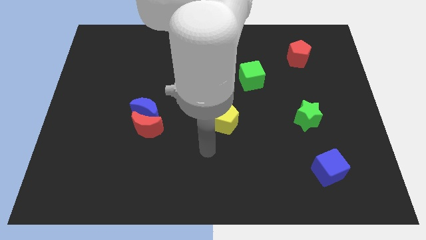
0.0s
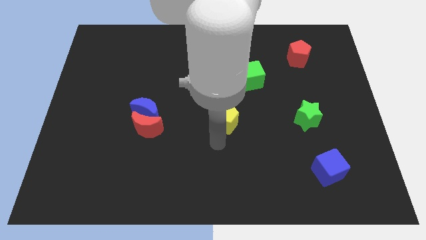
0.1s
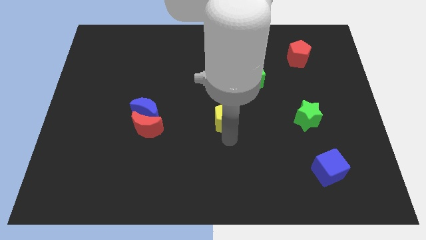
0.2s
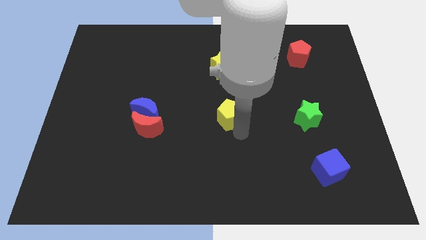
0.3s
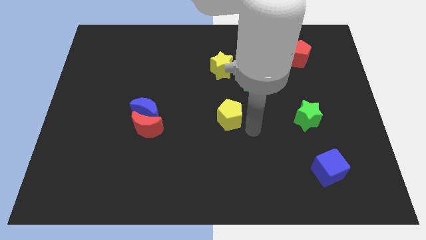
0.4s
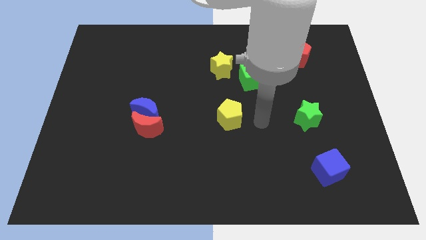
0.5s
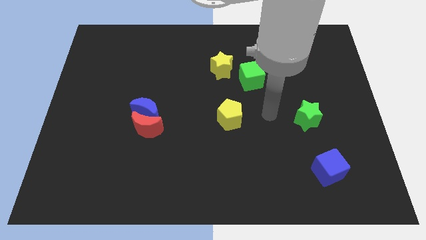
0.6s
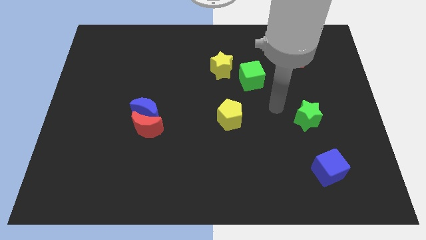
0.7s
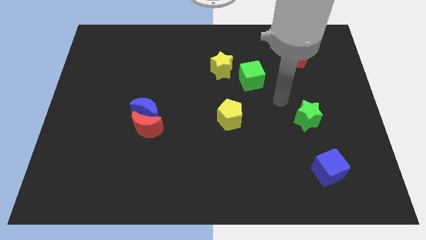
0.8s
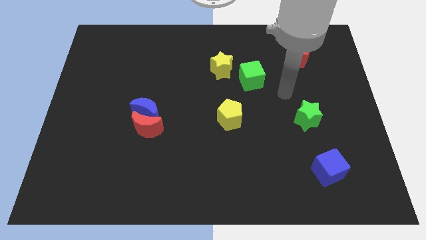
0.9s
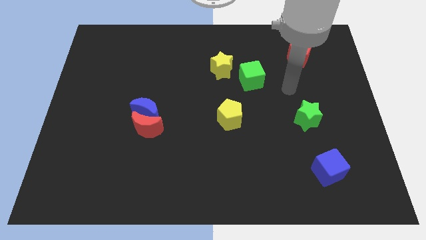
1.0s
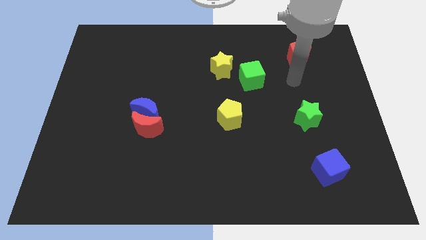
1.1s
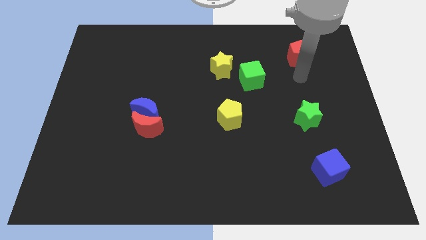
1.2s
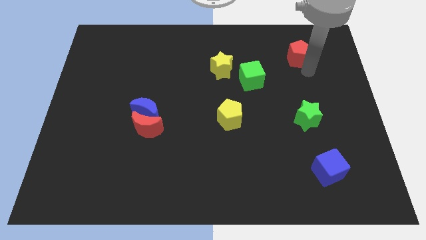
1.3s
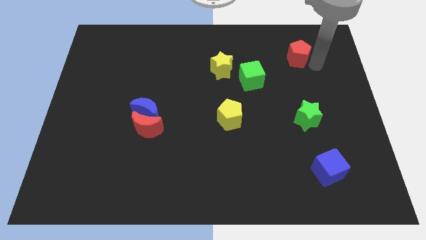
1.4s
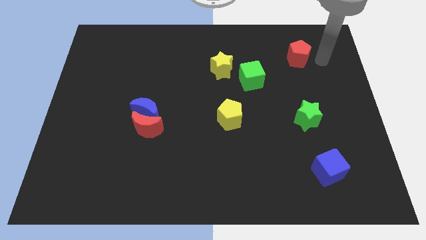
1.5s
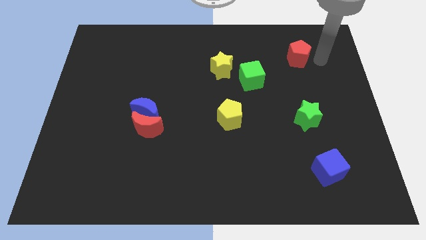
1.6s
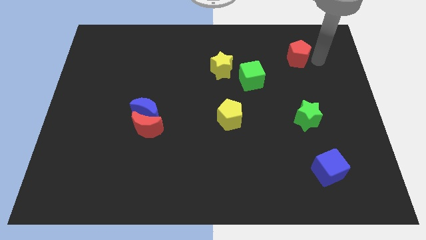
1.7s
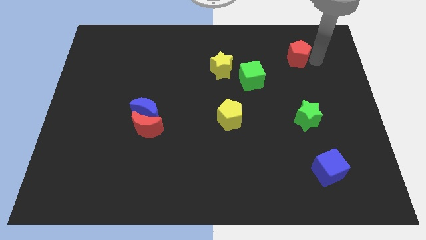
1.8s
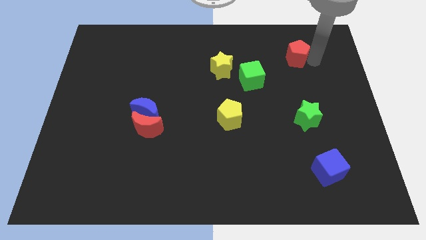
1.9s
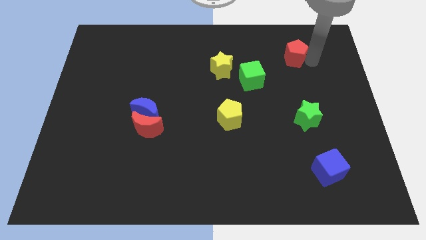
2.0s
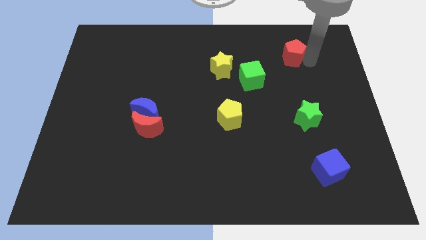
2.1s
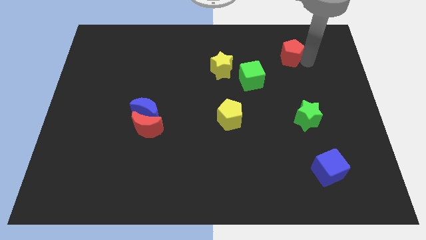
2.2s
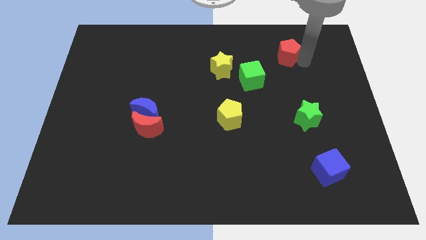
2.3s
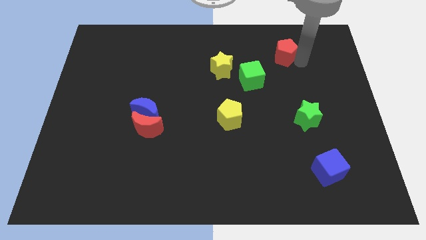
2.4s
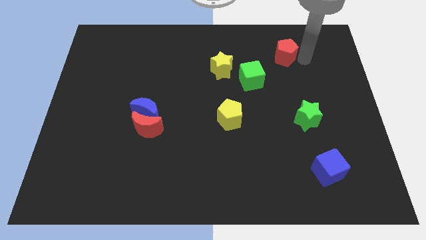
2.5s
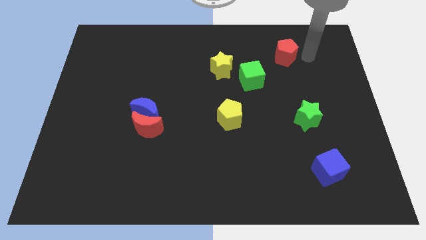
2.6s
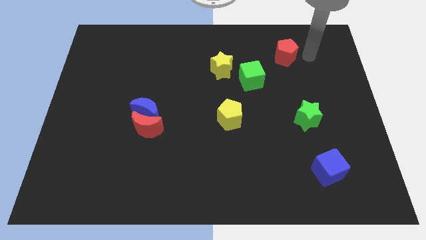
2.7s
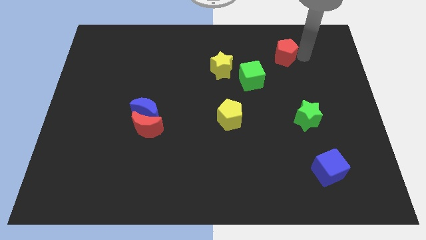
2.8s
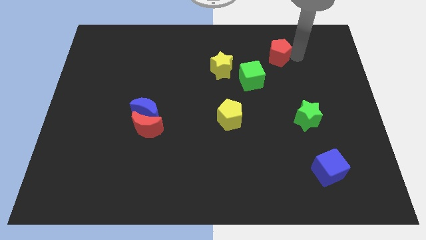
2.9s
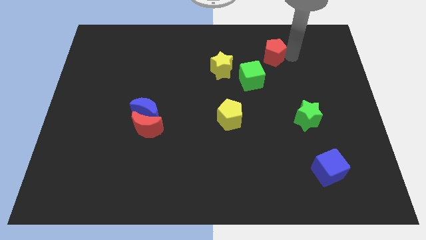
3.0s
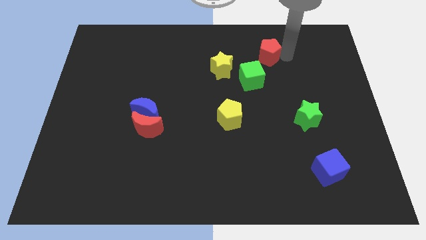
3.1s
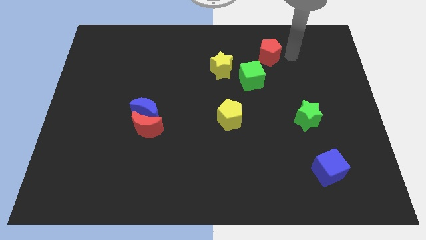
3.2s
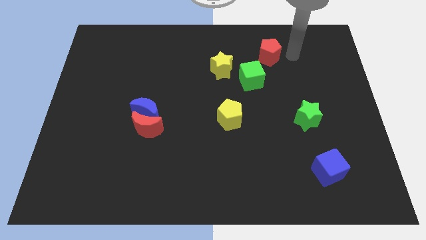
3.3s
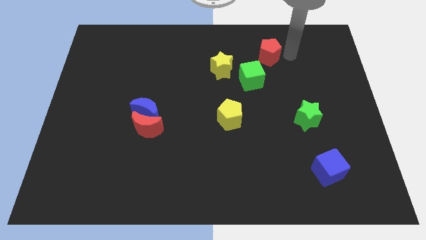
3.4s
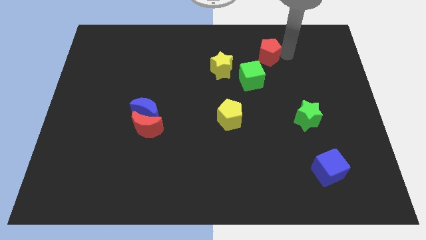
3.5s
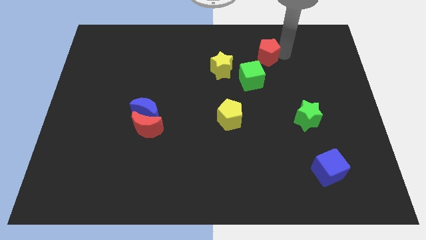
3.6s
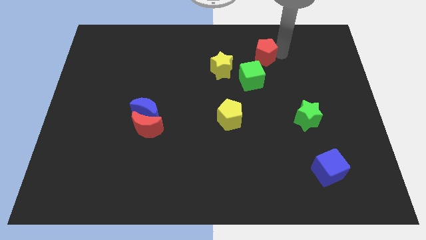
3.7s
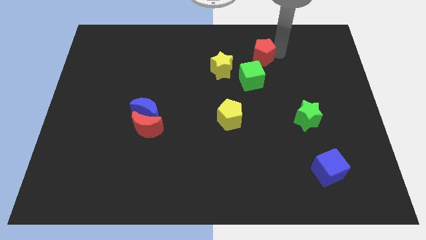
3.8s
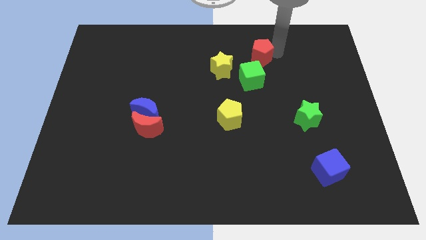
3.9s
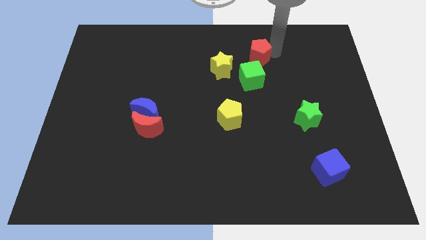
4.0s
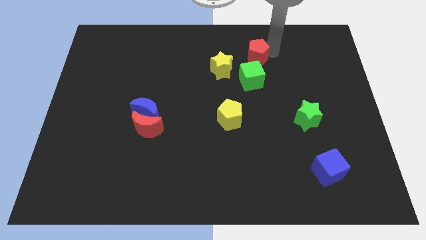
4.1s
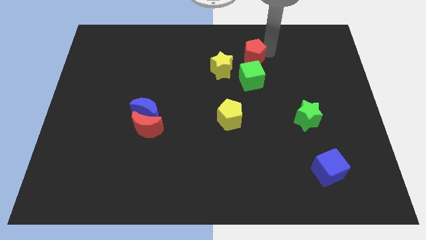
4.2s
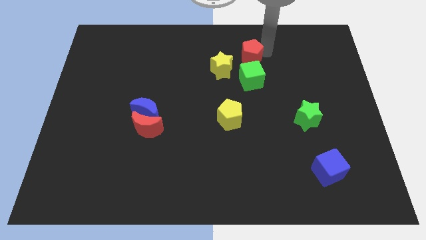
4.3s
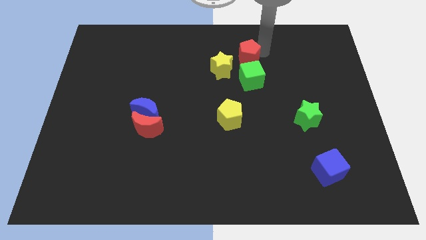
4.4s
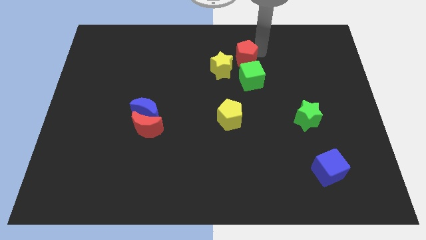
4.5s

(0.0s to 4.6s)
move the red pentagon diagonally up and to the left of the green cube

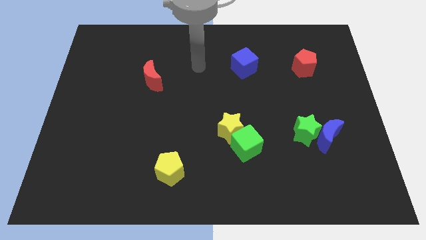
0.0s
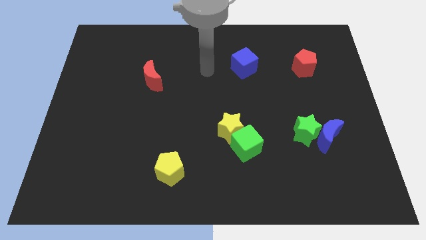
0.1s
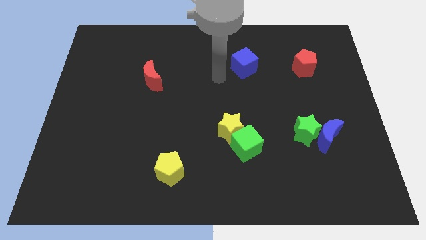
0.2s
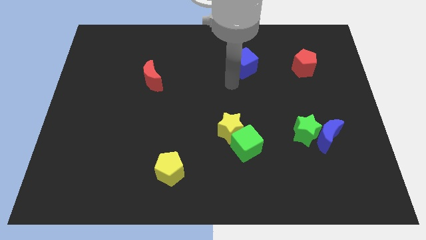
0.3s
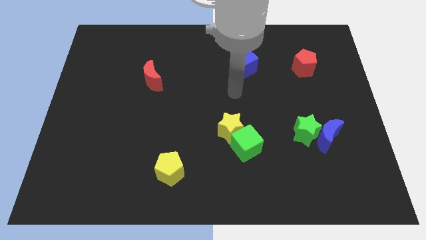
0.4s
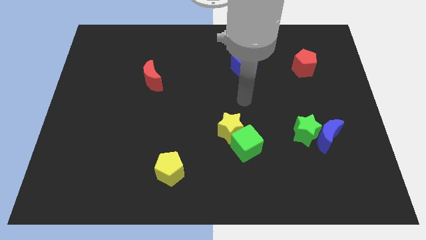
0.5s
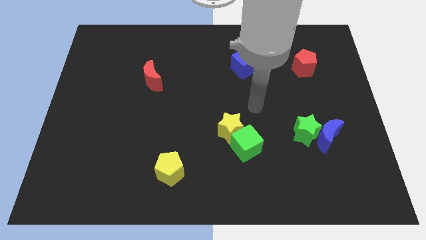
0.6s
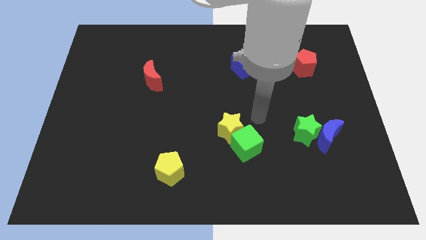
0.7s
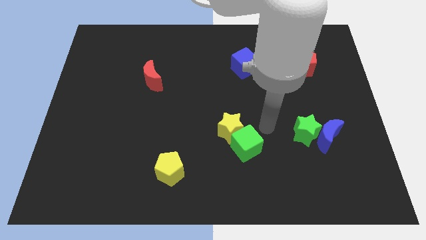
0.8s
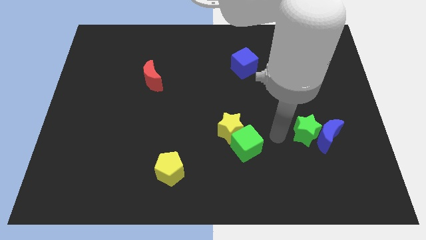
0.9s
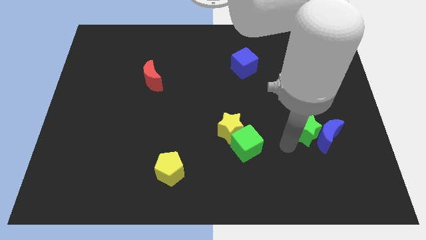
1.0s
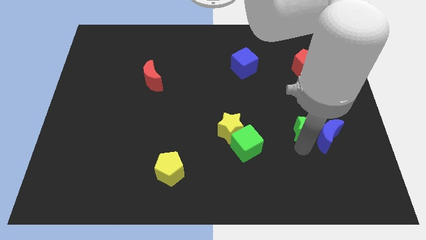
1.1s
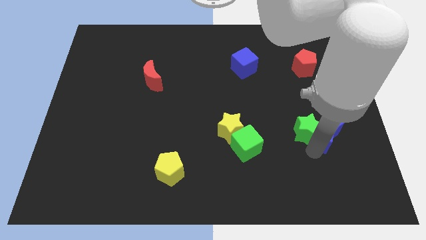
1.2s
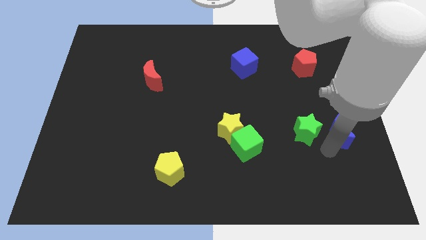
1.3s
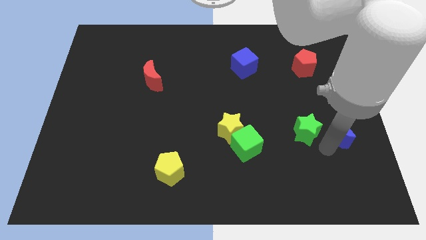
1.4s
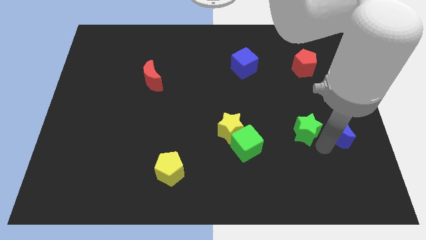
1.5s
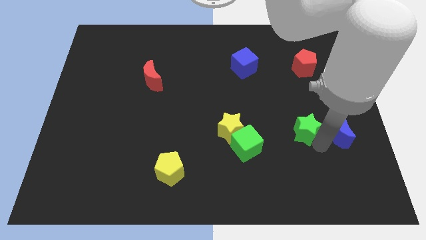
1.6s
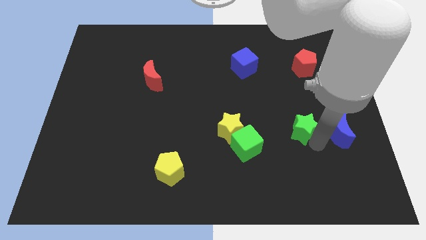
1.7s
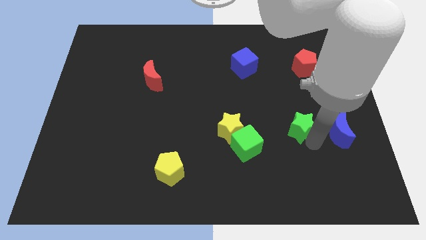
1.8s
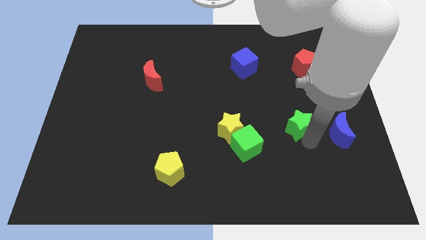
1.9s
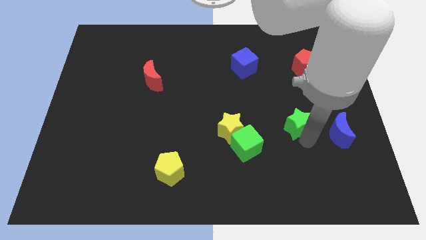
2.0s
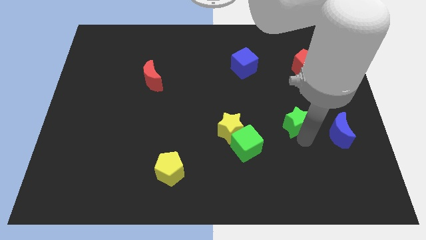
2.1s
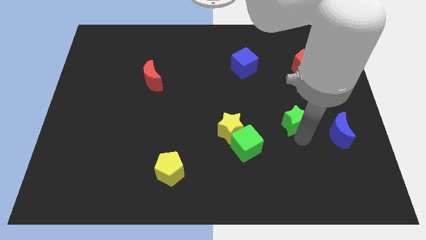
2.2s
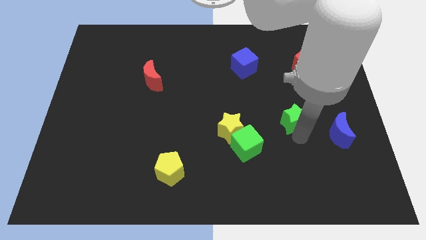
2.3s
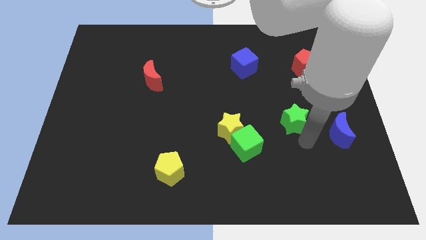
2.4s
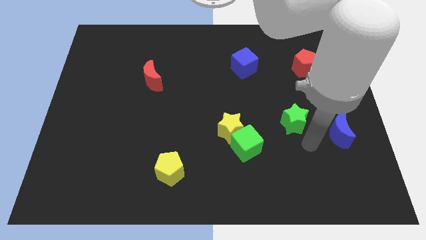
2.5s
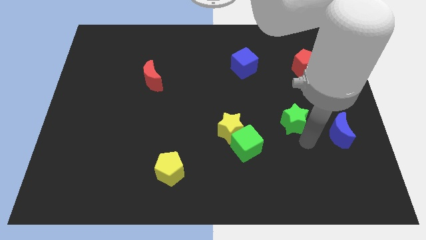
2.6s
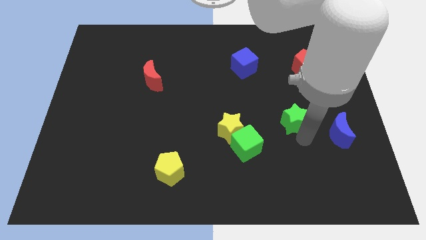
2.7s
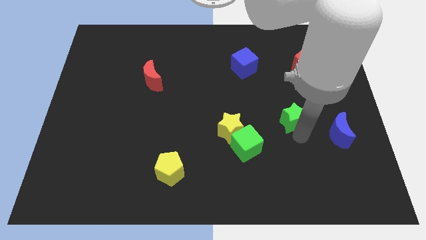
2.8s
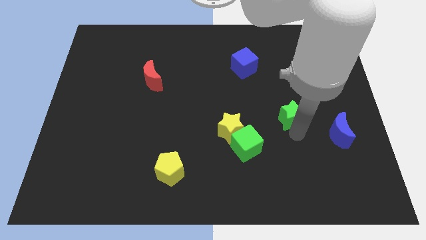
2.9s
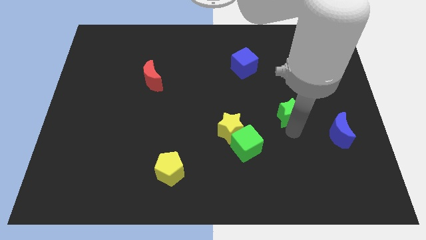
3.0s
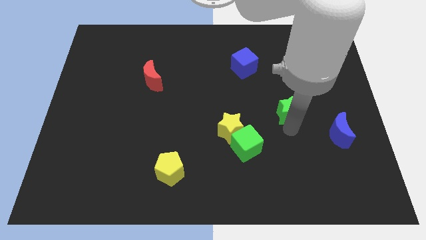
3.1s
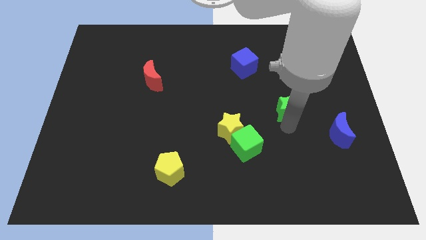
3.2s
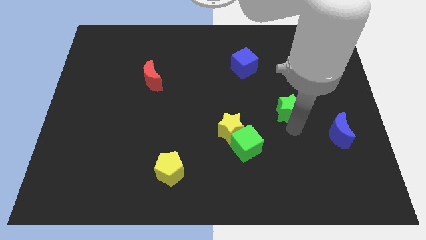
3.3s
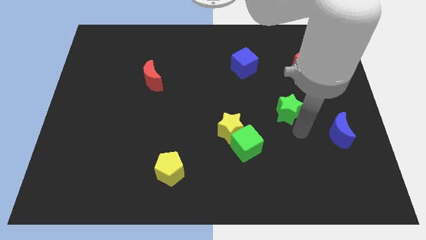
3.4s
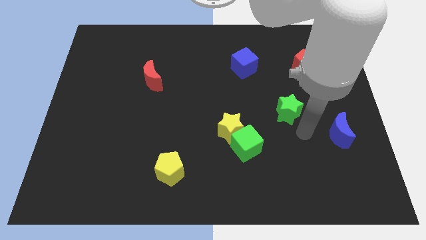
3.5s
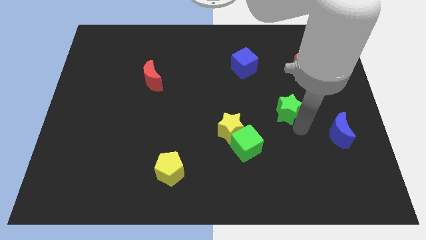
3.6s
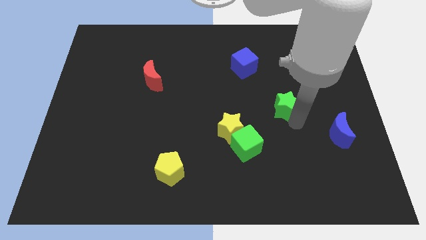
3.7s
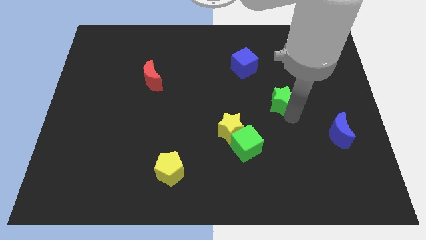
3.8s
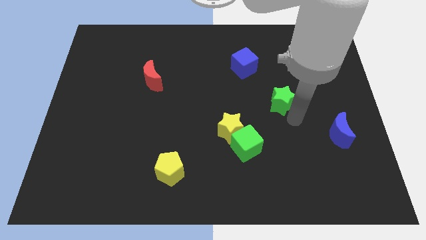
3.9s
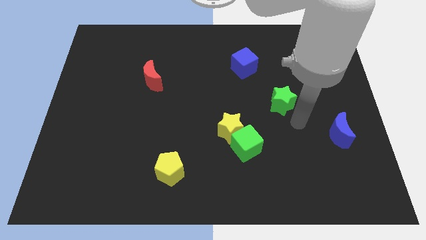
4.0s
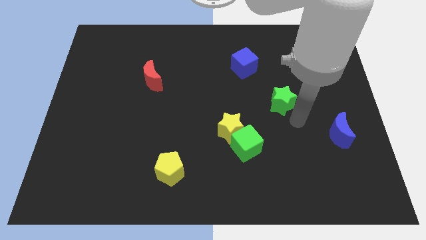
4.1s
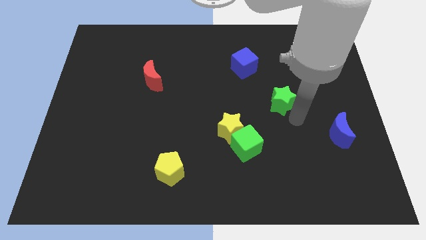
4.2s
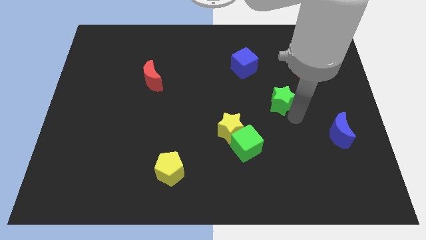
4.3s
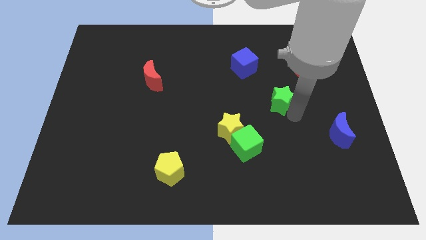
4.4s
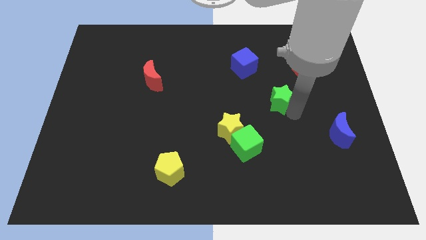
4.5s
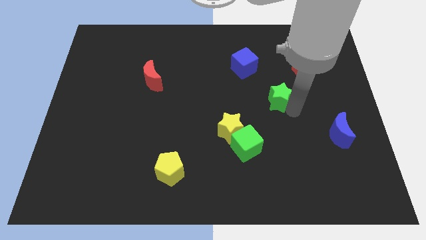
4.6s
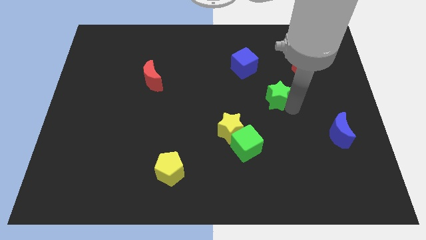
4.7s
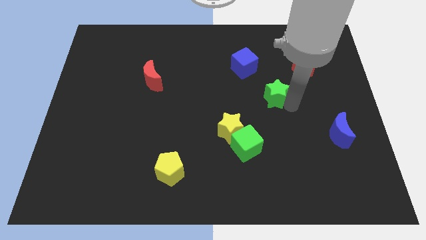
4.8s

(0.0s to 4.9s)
move the green star to the bottom right side of the blue cube
